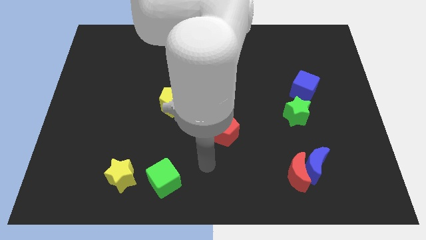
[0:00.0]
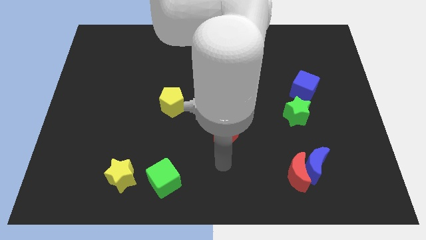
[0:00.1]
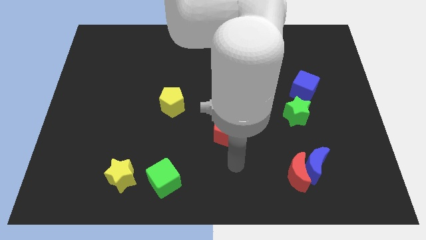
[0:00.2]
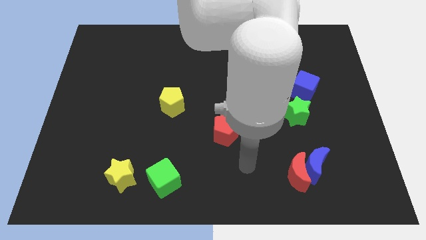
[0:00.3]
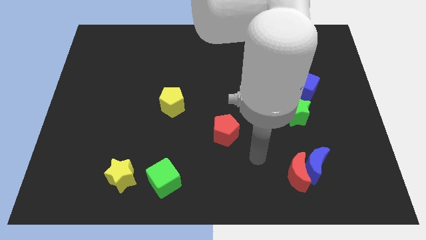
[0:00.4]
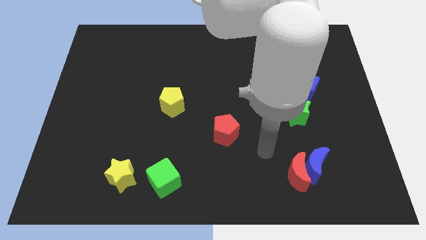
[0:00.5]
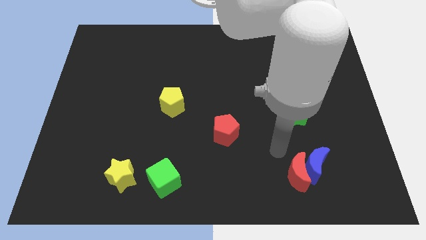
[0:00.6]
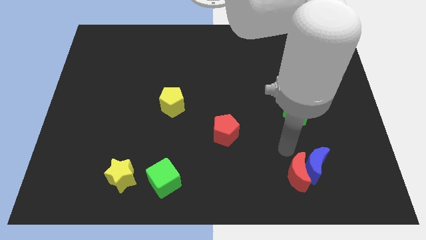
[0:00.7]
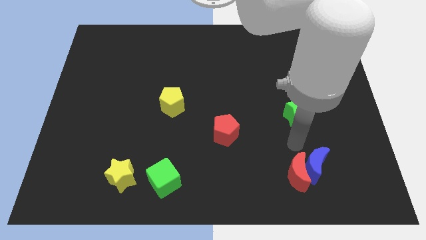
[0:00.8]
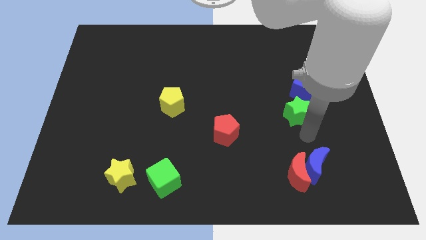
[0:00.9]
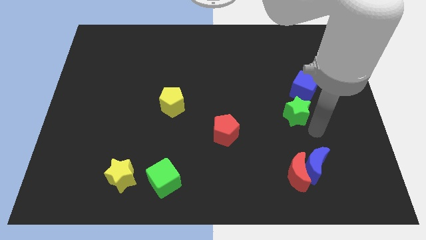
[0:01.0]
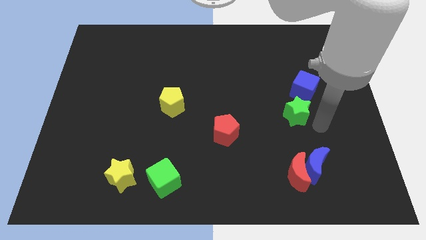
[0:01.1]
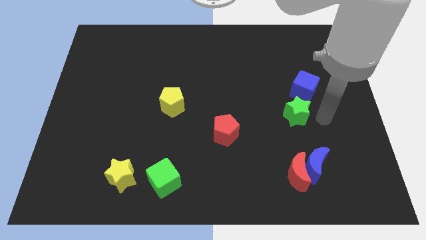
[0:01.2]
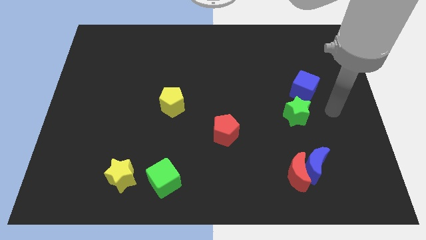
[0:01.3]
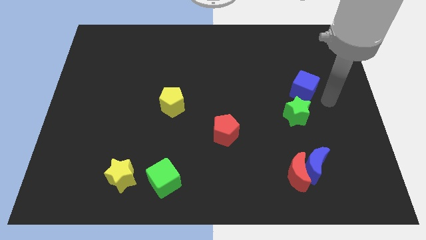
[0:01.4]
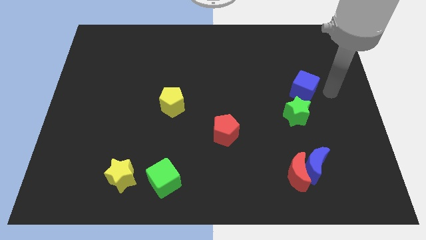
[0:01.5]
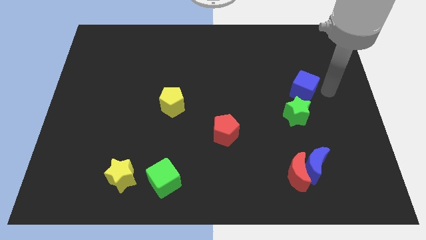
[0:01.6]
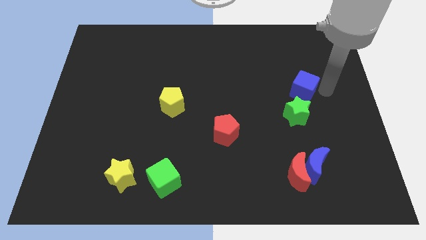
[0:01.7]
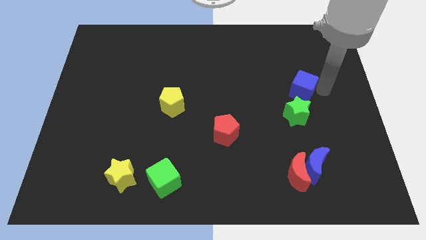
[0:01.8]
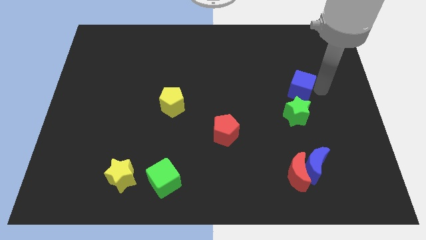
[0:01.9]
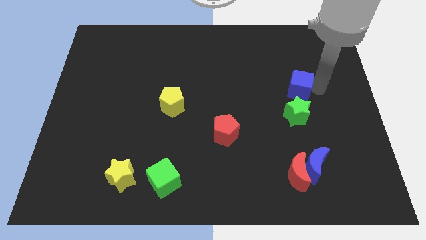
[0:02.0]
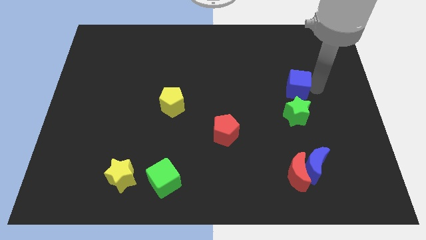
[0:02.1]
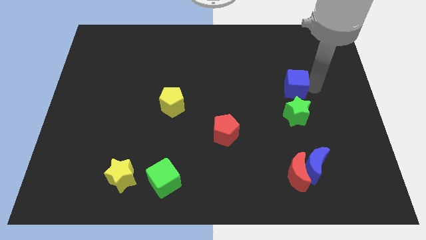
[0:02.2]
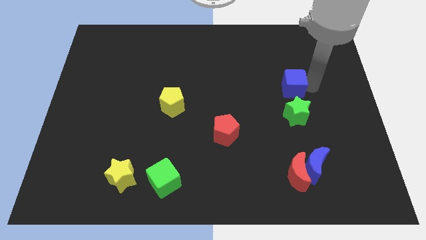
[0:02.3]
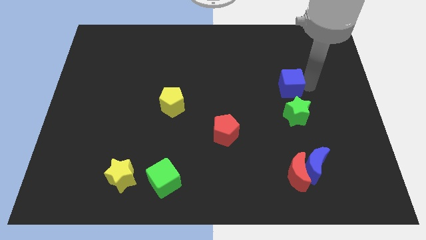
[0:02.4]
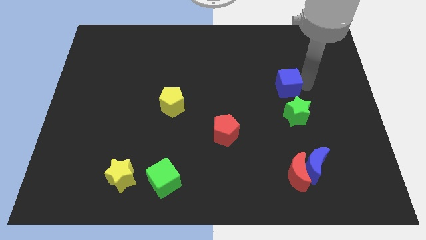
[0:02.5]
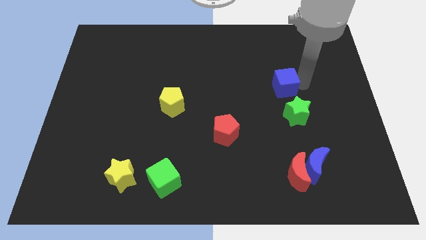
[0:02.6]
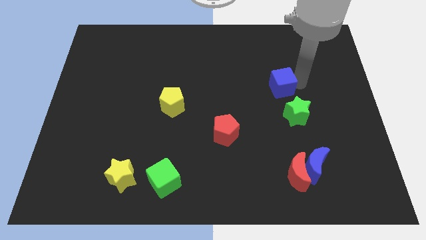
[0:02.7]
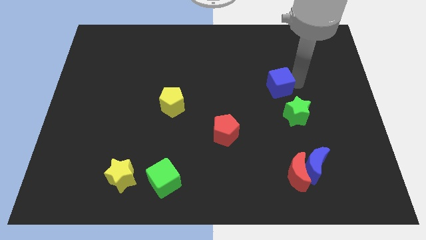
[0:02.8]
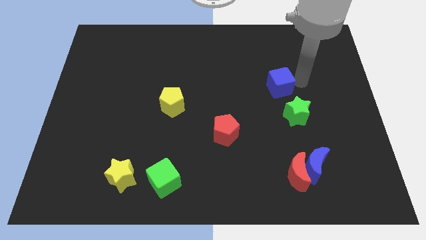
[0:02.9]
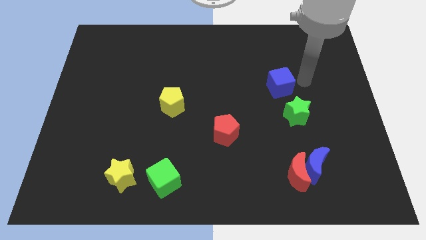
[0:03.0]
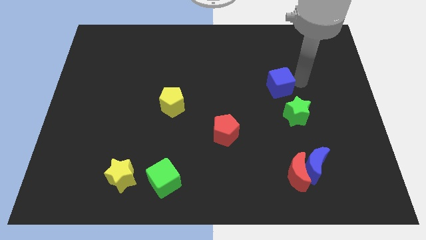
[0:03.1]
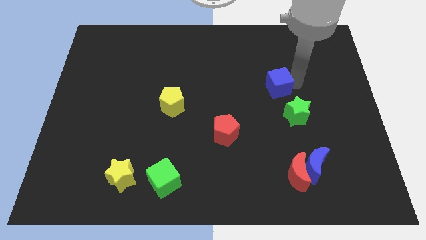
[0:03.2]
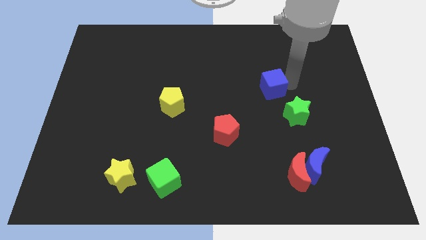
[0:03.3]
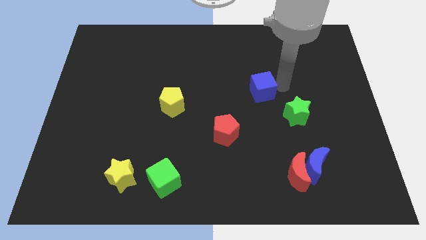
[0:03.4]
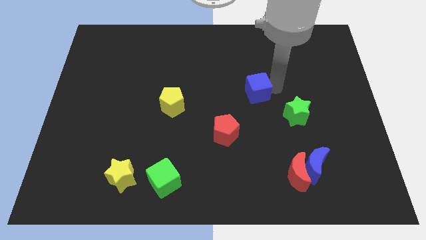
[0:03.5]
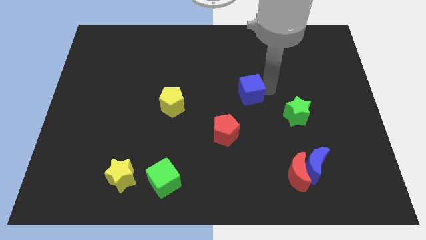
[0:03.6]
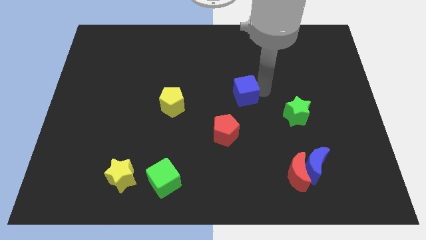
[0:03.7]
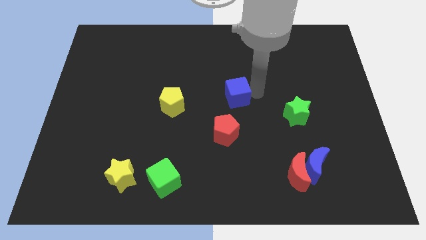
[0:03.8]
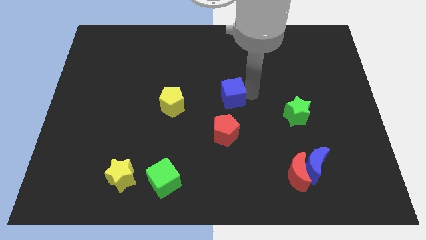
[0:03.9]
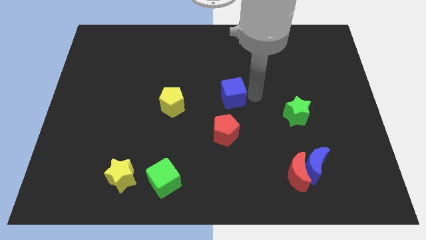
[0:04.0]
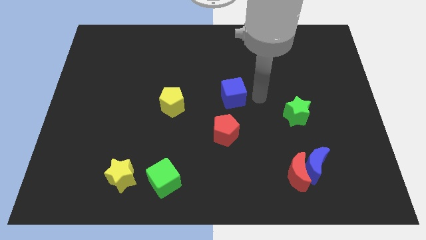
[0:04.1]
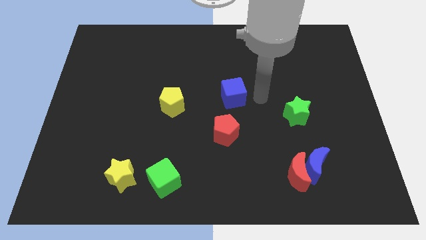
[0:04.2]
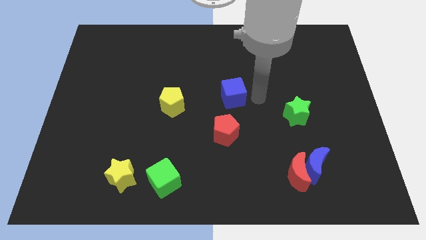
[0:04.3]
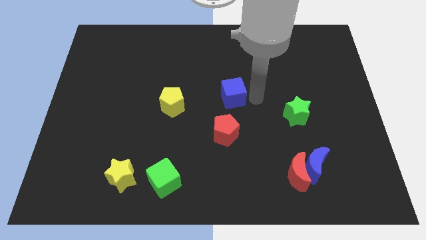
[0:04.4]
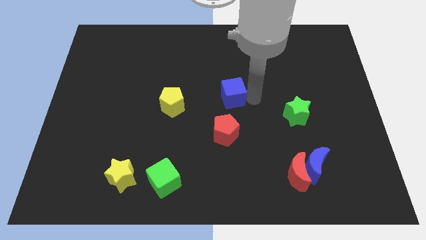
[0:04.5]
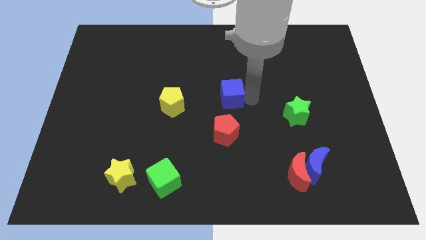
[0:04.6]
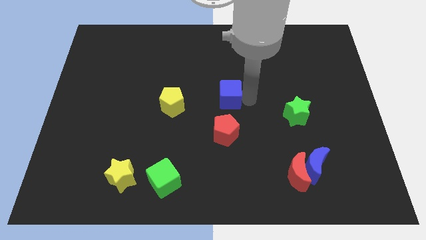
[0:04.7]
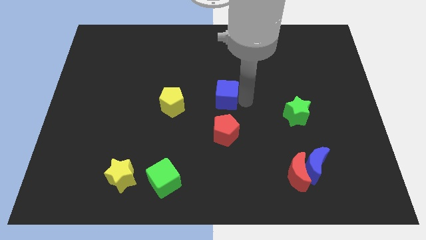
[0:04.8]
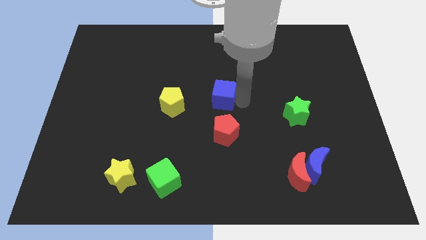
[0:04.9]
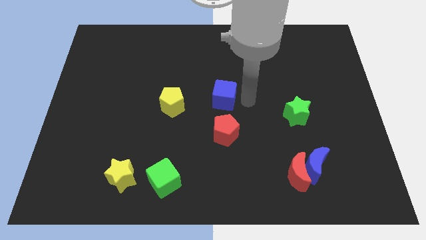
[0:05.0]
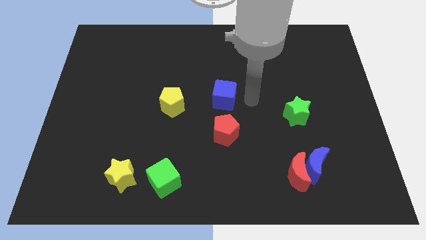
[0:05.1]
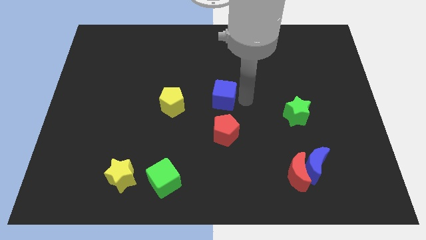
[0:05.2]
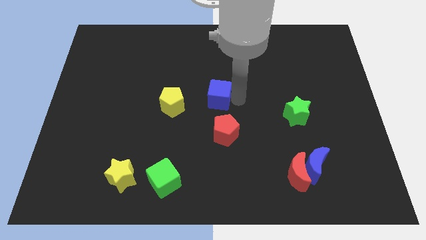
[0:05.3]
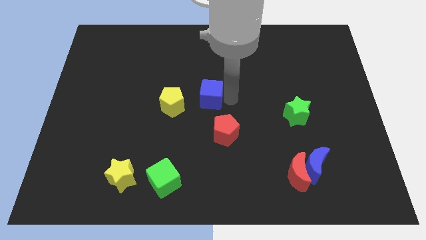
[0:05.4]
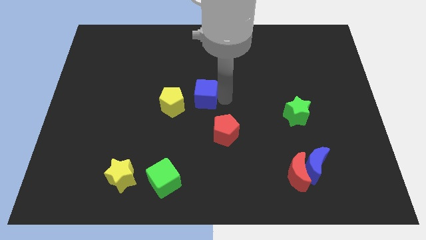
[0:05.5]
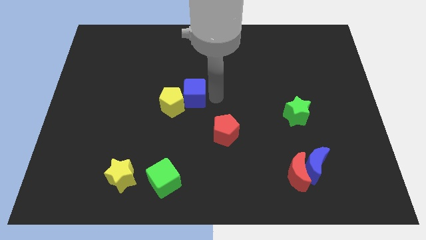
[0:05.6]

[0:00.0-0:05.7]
put the blue cube towards the yellow pentagon
